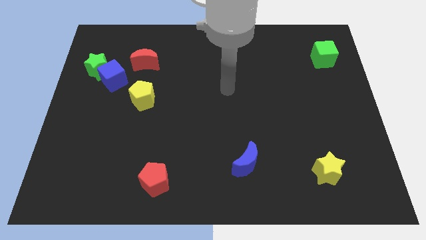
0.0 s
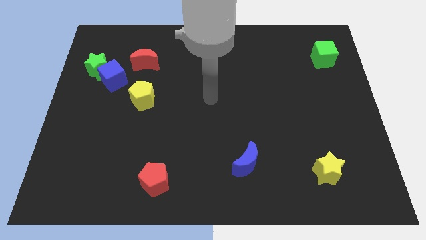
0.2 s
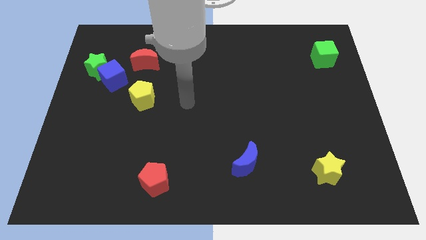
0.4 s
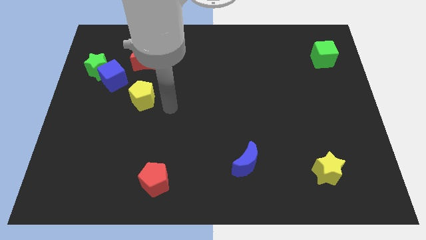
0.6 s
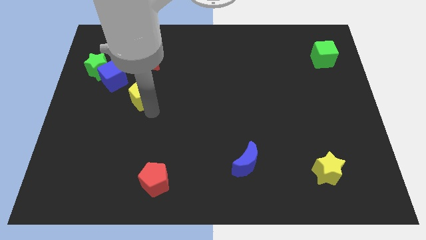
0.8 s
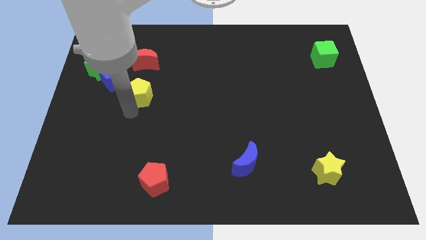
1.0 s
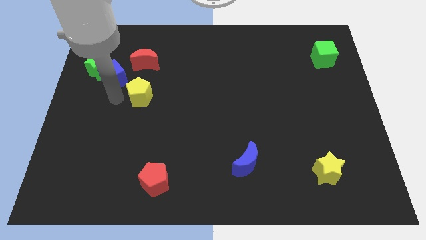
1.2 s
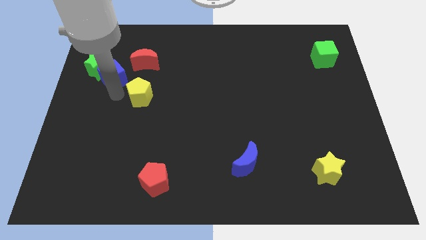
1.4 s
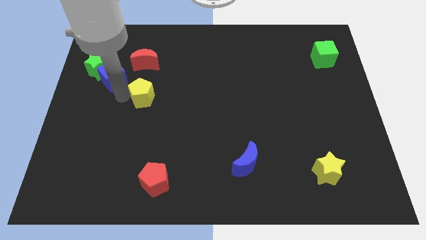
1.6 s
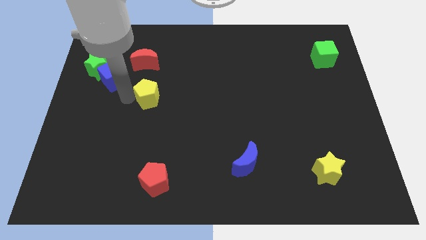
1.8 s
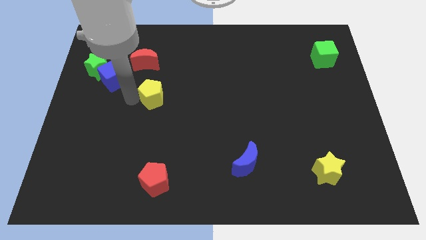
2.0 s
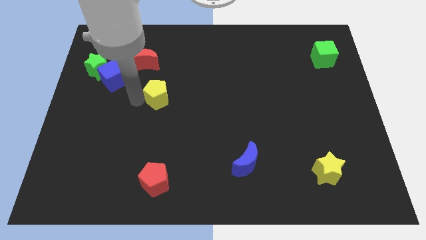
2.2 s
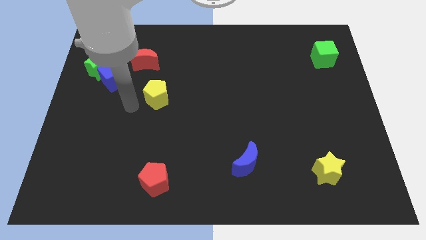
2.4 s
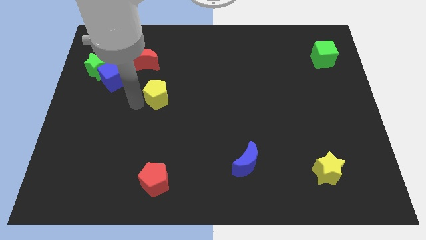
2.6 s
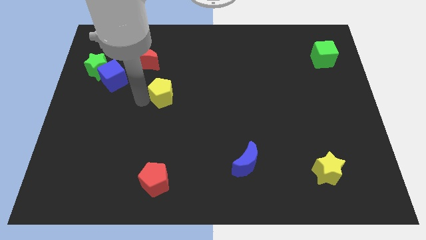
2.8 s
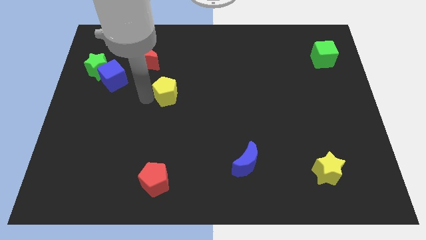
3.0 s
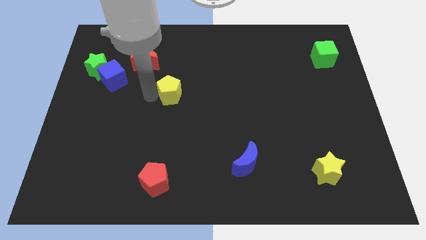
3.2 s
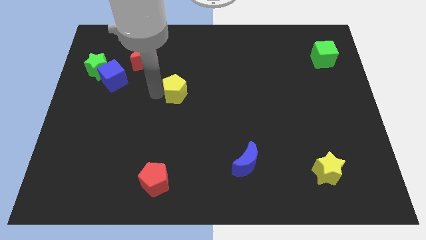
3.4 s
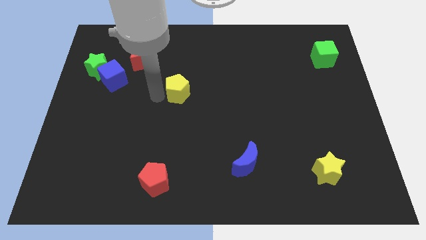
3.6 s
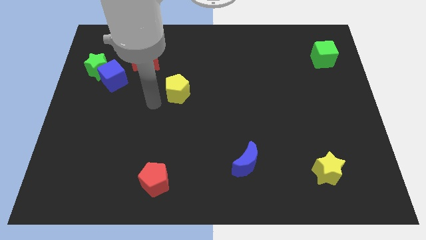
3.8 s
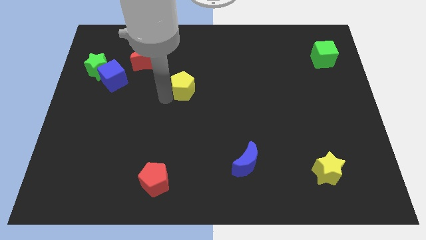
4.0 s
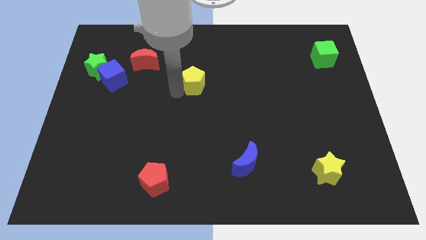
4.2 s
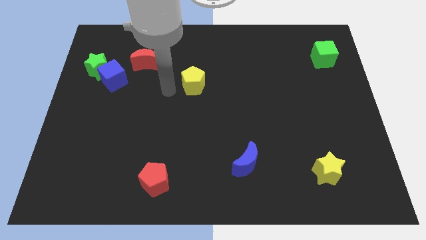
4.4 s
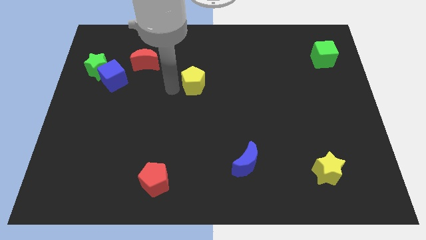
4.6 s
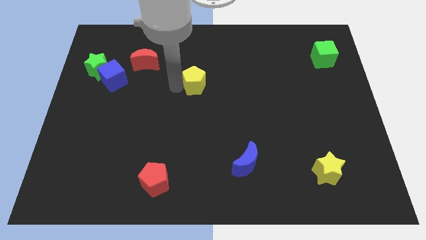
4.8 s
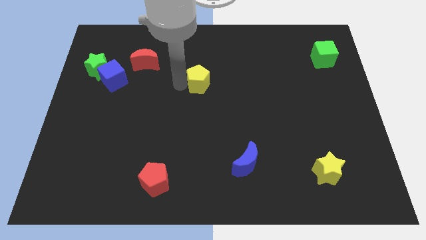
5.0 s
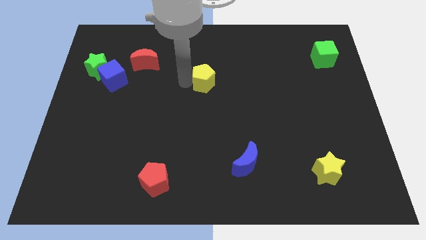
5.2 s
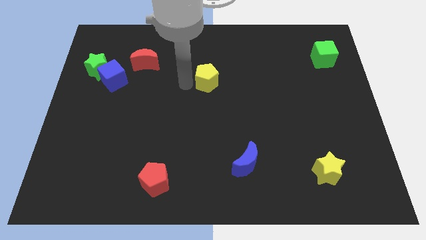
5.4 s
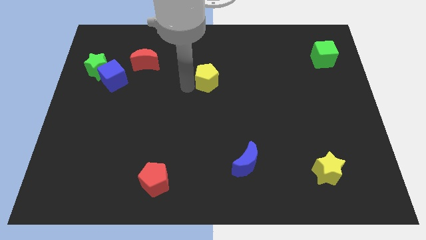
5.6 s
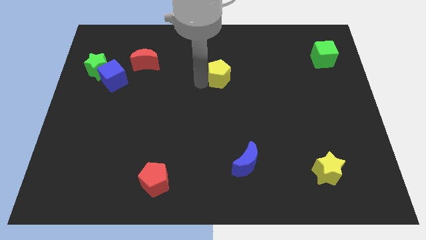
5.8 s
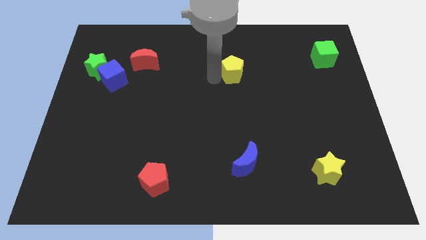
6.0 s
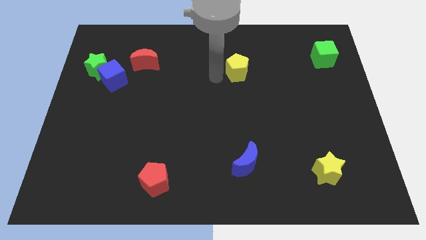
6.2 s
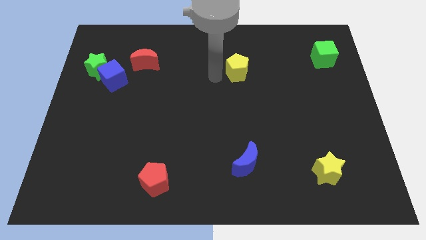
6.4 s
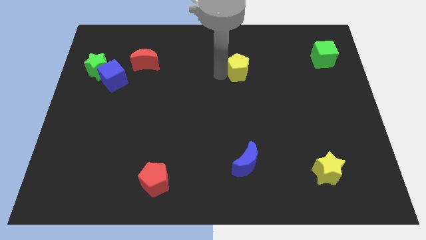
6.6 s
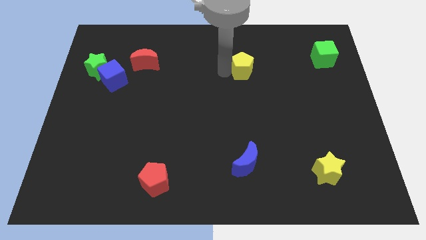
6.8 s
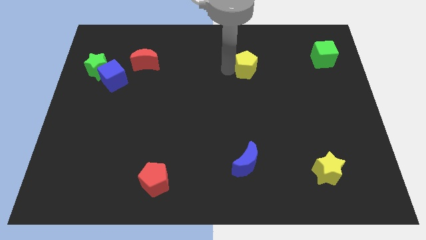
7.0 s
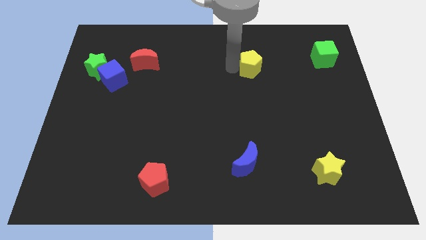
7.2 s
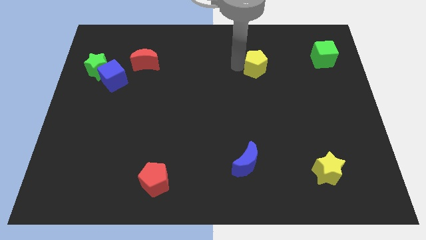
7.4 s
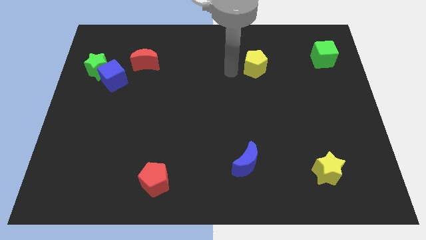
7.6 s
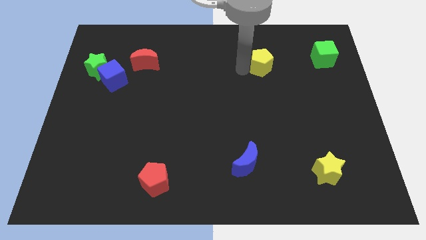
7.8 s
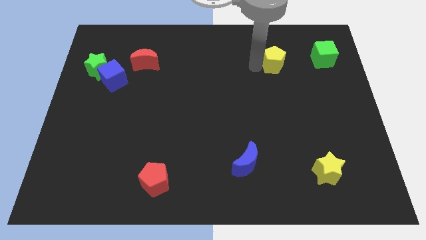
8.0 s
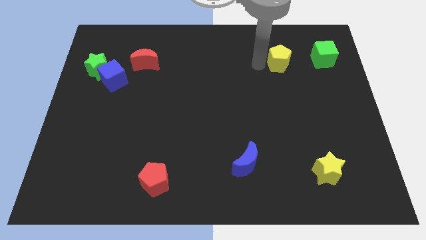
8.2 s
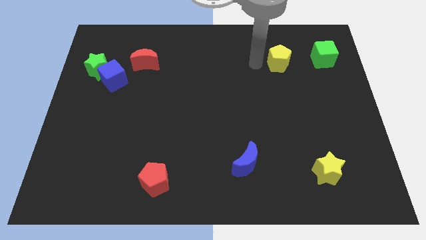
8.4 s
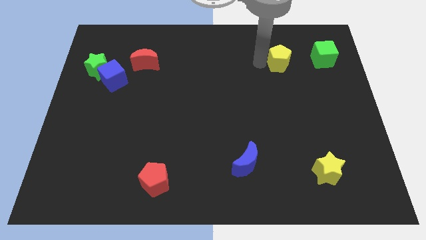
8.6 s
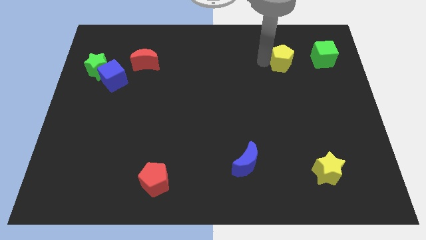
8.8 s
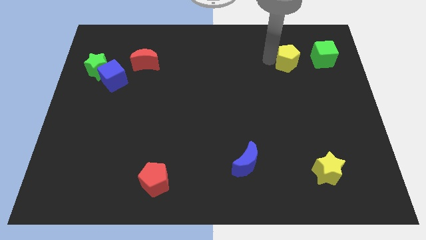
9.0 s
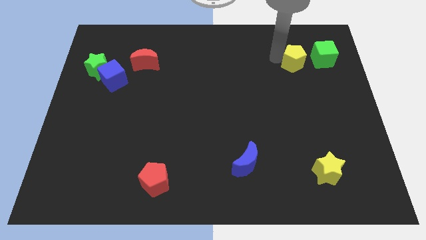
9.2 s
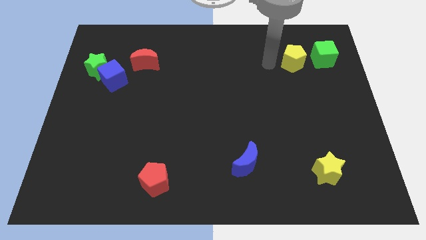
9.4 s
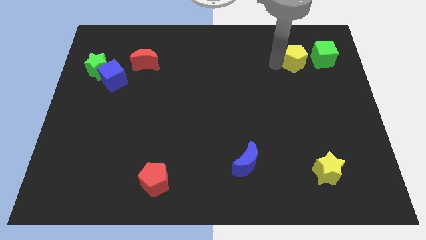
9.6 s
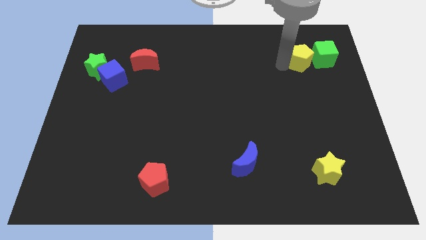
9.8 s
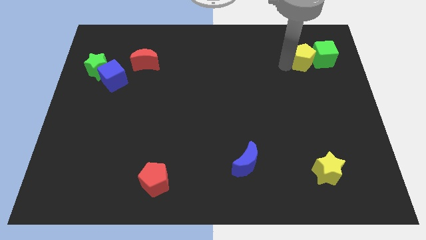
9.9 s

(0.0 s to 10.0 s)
move the yellow pentagon towards the green cube

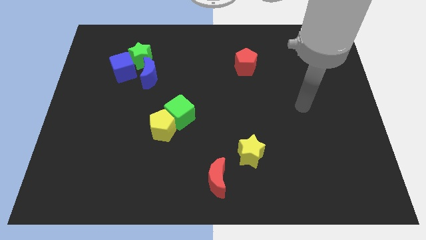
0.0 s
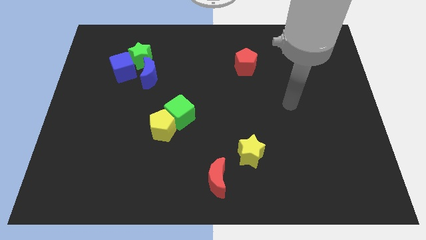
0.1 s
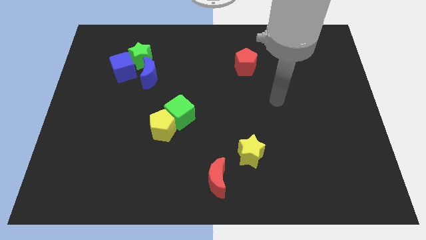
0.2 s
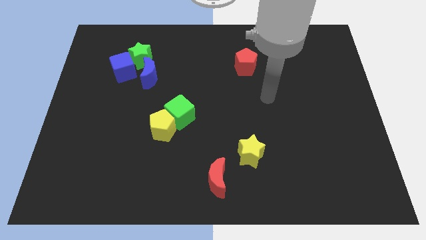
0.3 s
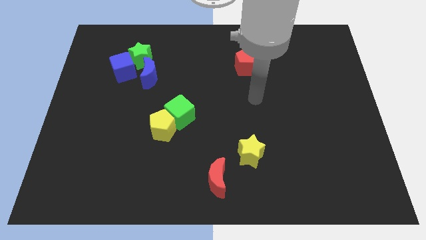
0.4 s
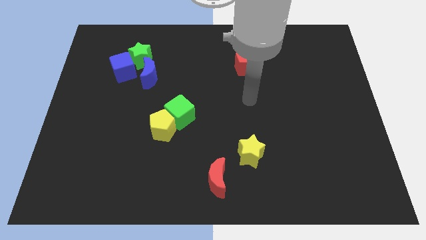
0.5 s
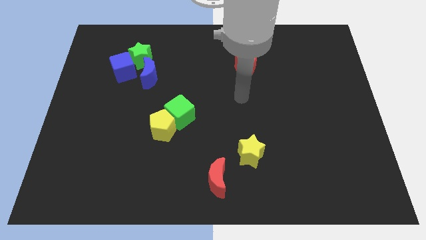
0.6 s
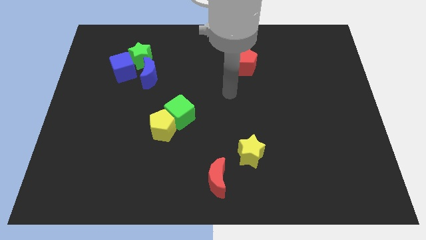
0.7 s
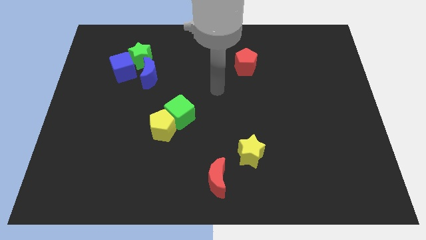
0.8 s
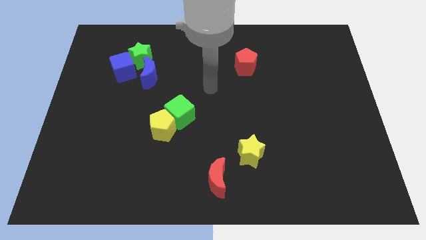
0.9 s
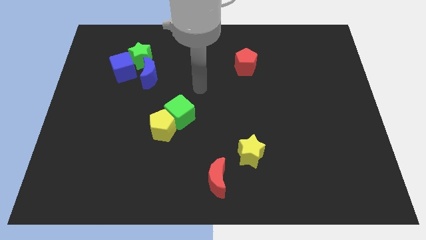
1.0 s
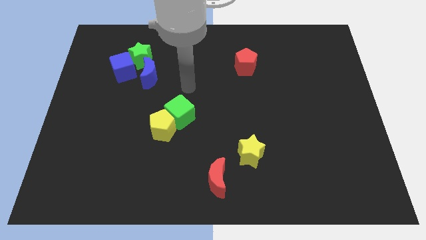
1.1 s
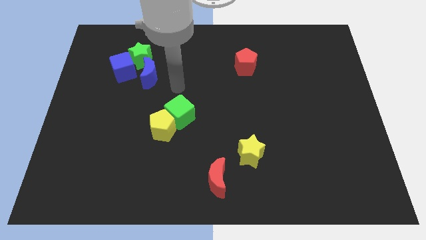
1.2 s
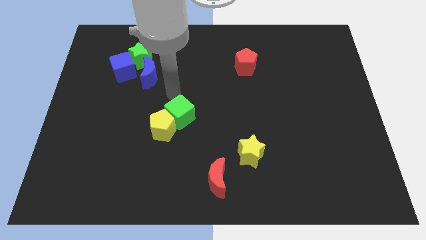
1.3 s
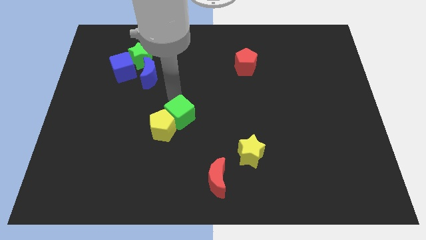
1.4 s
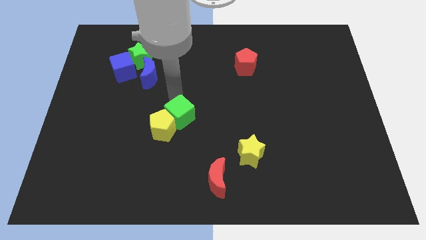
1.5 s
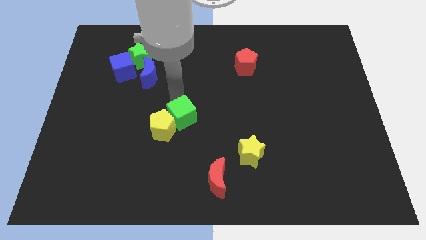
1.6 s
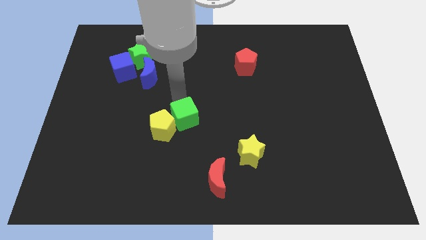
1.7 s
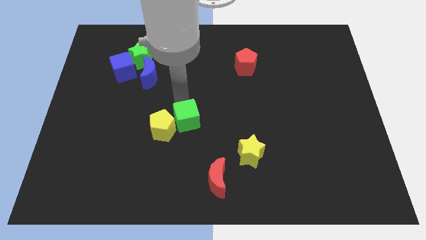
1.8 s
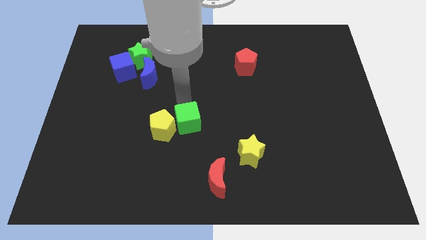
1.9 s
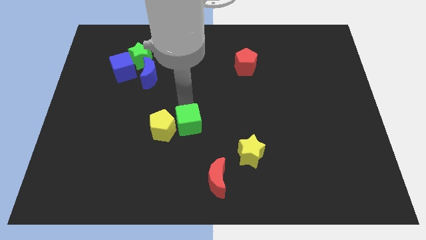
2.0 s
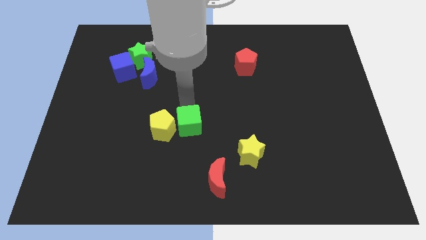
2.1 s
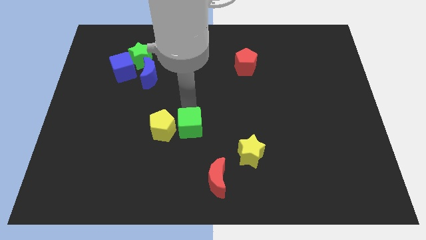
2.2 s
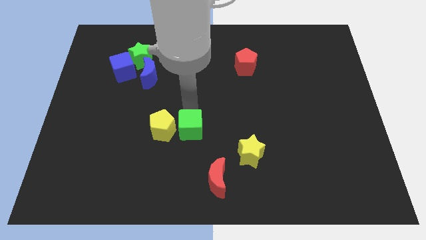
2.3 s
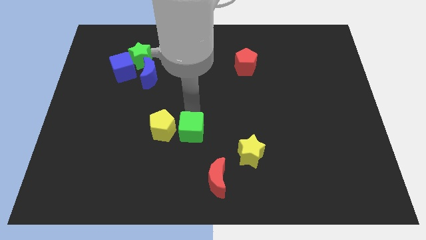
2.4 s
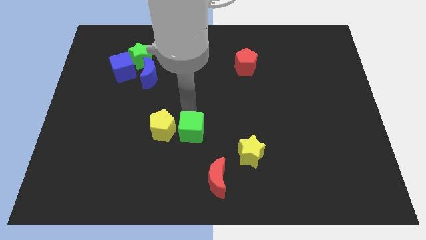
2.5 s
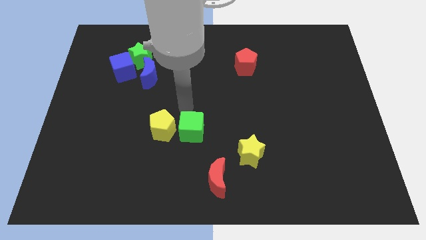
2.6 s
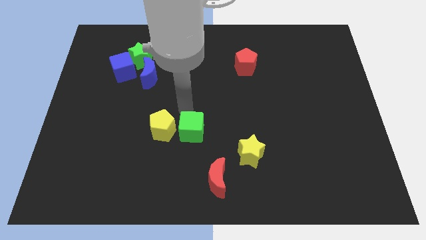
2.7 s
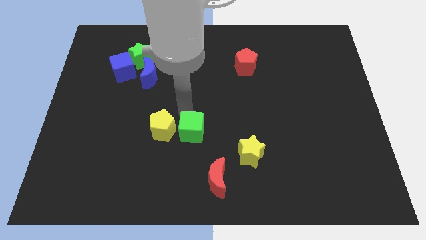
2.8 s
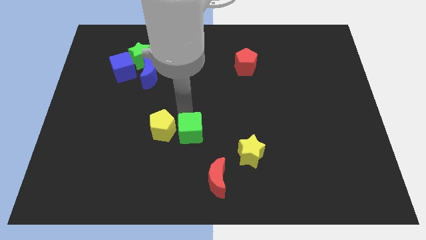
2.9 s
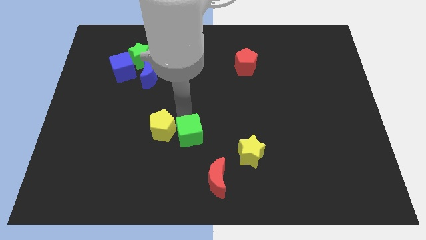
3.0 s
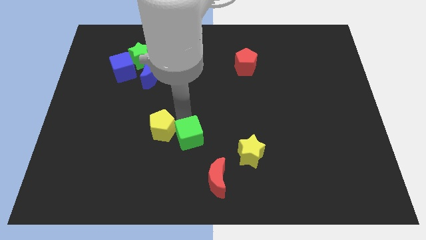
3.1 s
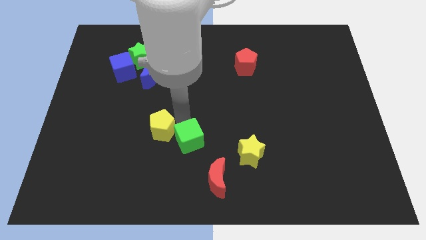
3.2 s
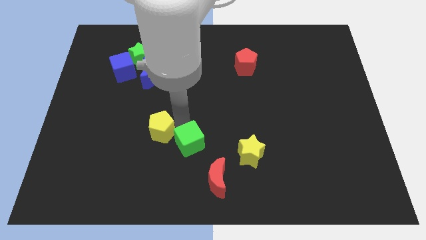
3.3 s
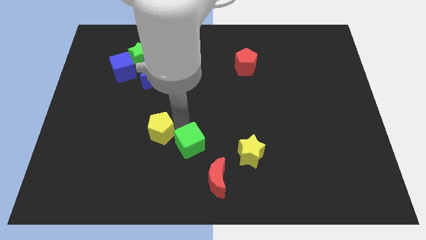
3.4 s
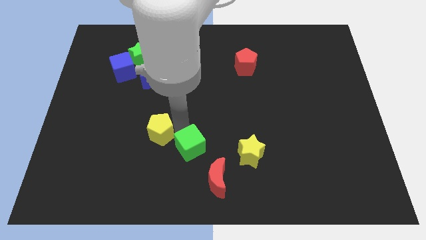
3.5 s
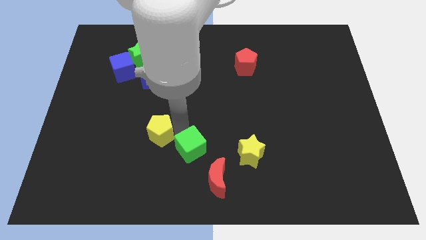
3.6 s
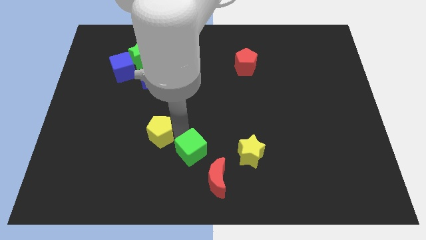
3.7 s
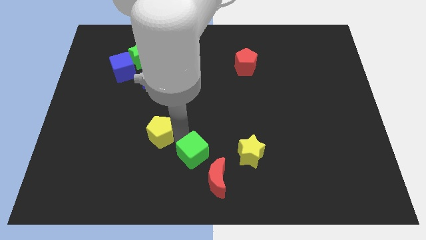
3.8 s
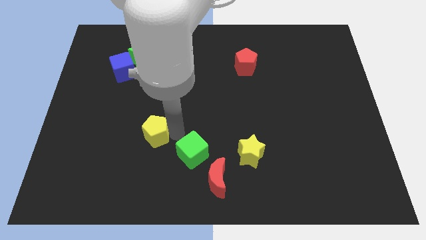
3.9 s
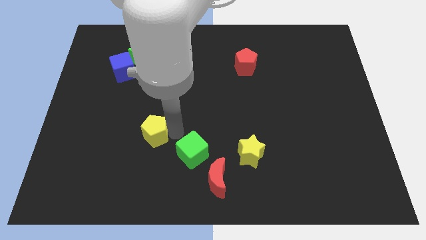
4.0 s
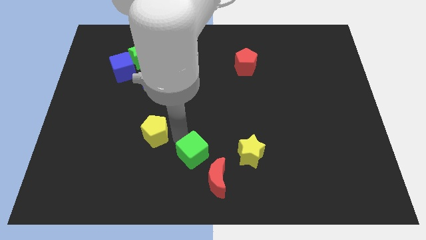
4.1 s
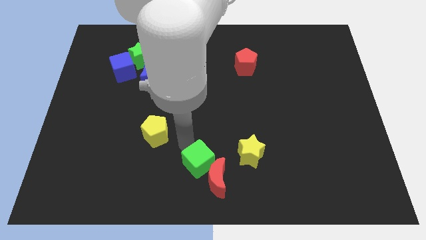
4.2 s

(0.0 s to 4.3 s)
push the green cube towards the red moon
